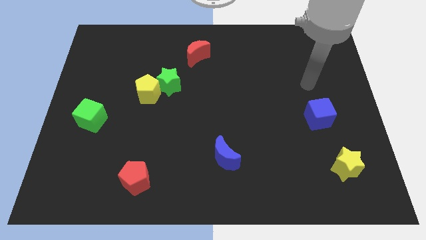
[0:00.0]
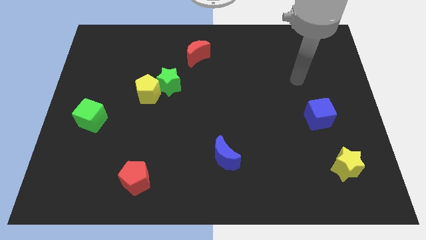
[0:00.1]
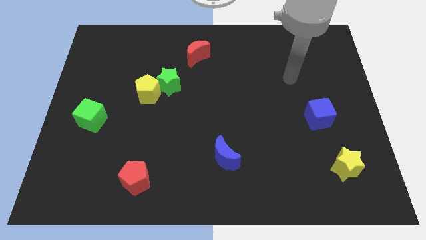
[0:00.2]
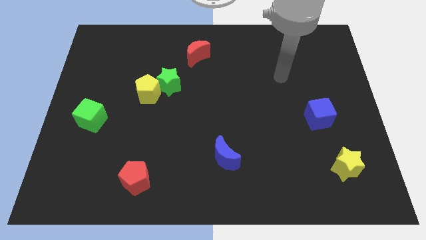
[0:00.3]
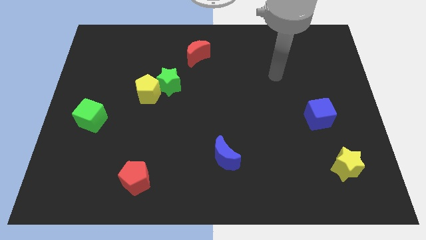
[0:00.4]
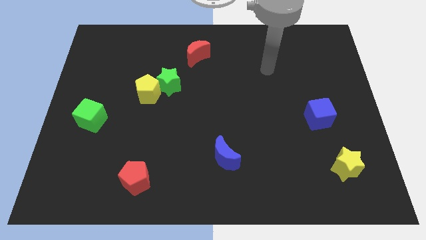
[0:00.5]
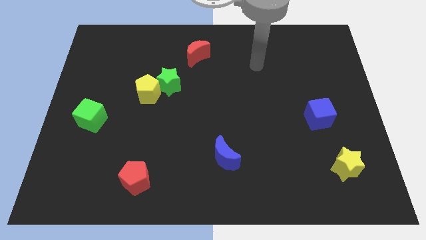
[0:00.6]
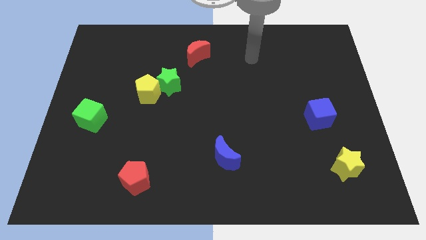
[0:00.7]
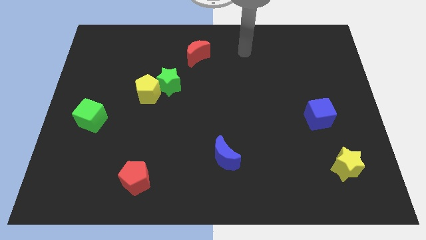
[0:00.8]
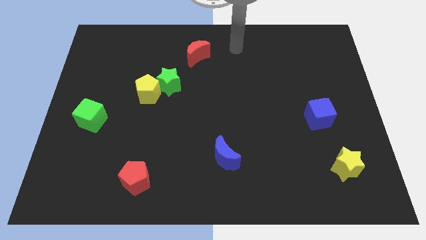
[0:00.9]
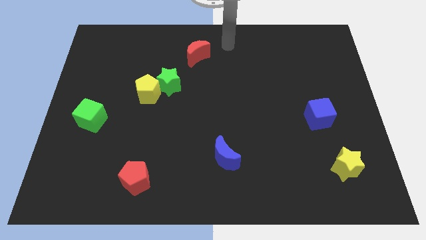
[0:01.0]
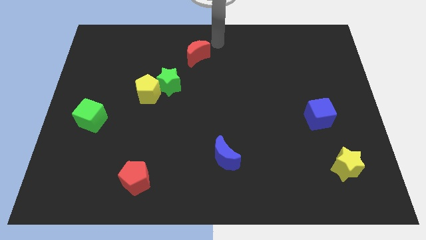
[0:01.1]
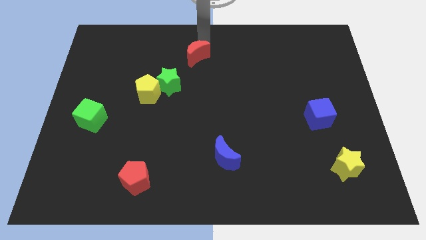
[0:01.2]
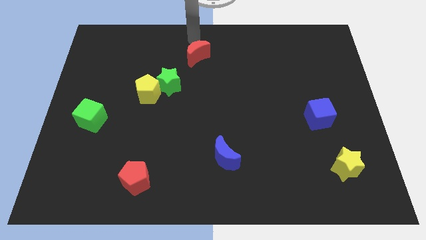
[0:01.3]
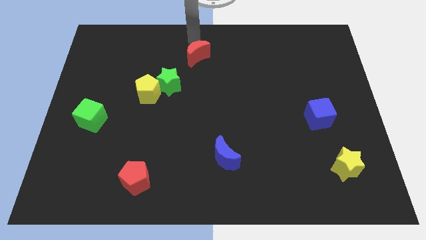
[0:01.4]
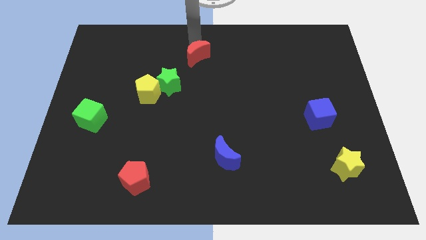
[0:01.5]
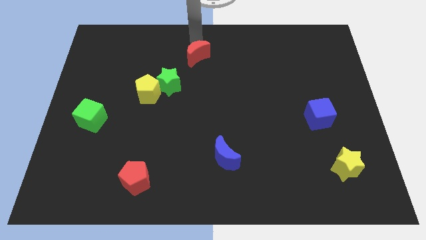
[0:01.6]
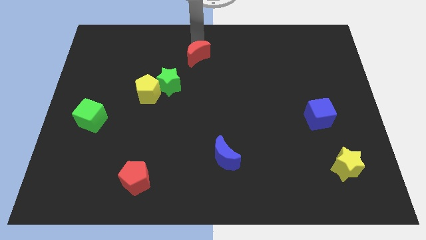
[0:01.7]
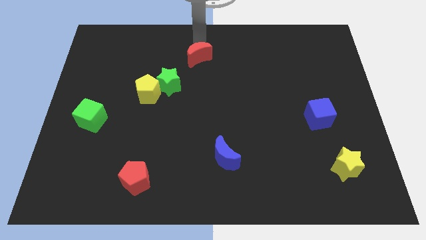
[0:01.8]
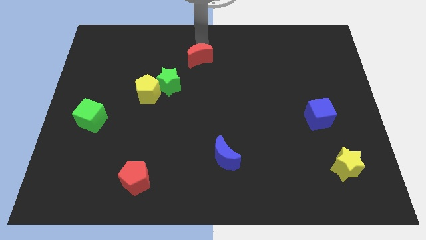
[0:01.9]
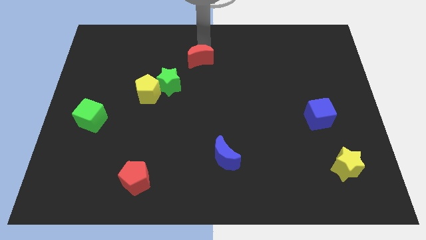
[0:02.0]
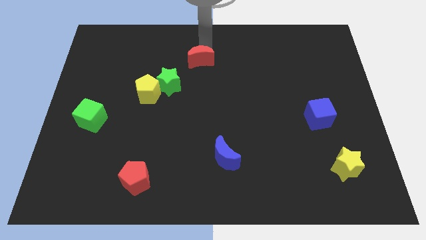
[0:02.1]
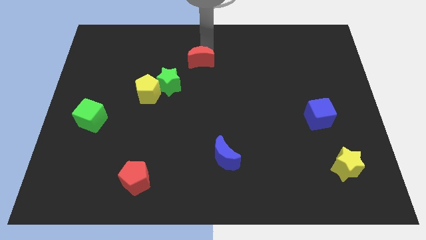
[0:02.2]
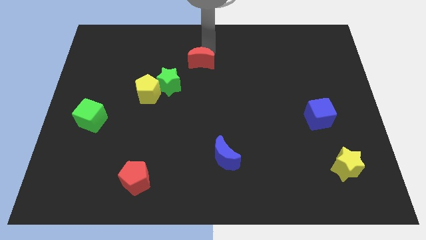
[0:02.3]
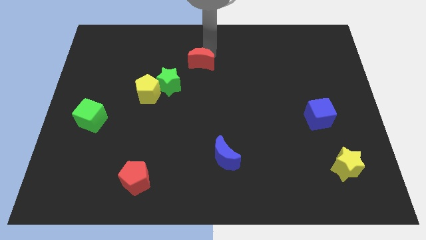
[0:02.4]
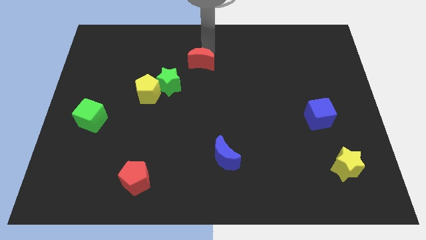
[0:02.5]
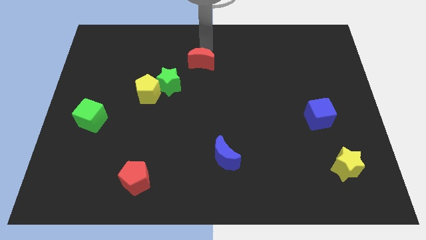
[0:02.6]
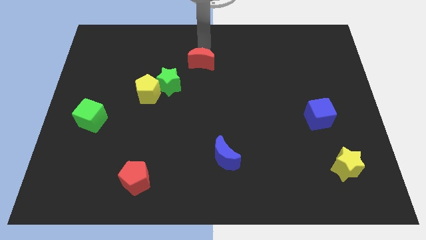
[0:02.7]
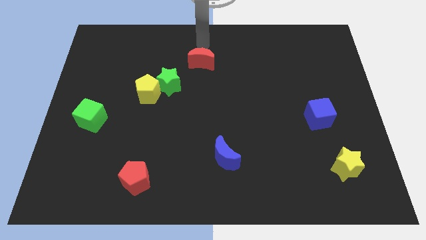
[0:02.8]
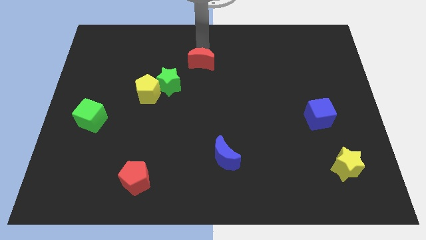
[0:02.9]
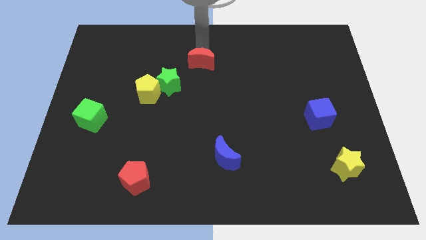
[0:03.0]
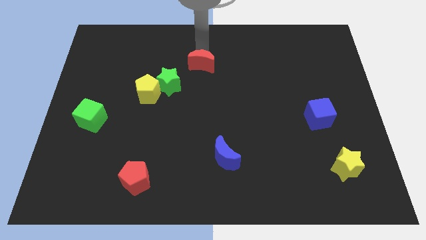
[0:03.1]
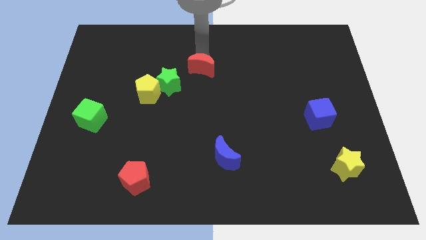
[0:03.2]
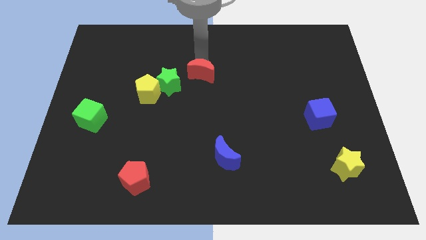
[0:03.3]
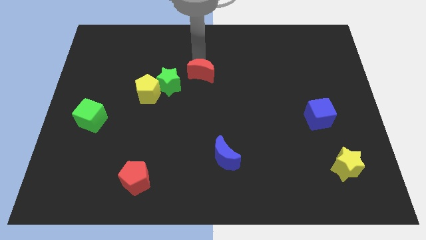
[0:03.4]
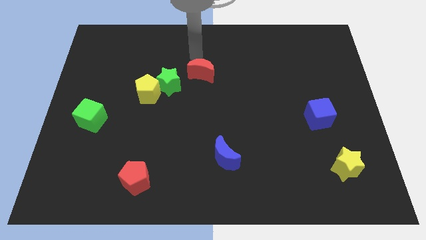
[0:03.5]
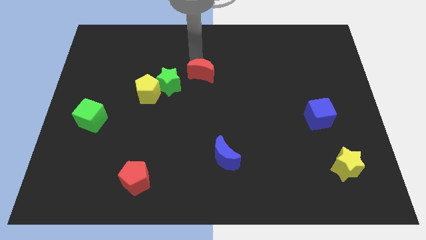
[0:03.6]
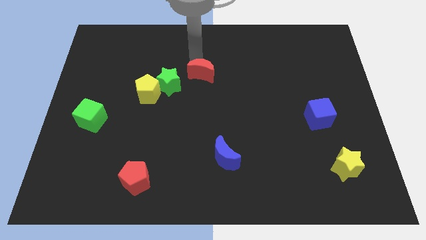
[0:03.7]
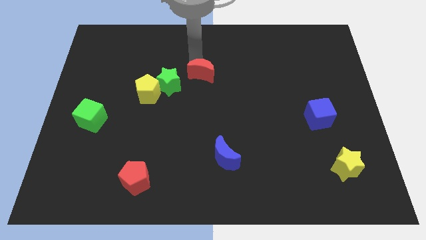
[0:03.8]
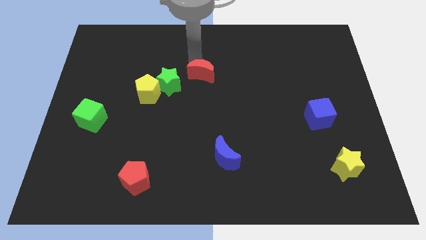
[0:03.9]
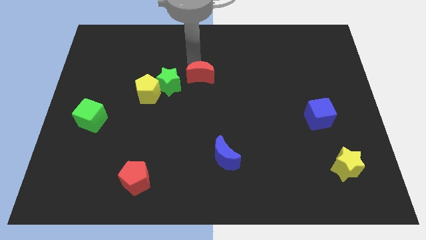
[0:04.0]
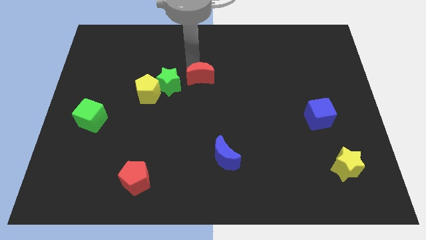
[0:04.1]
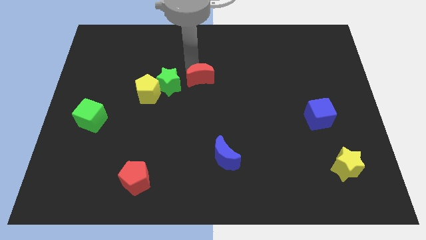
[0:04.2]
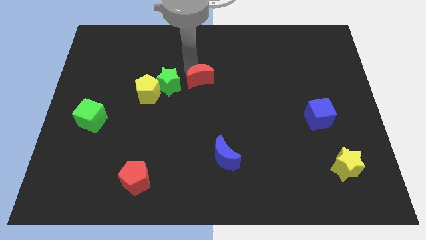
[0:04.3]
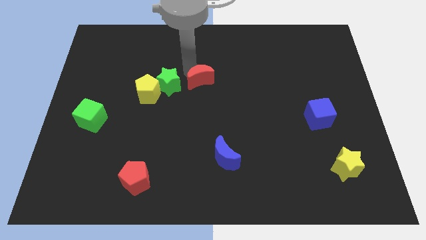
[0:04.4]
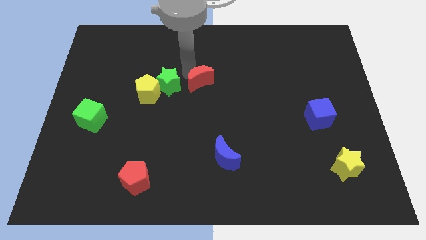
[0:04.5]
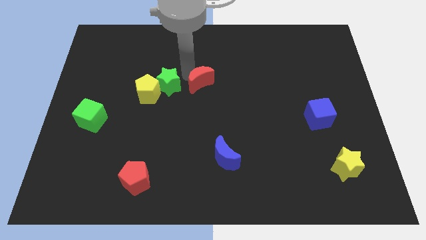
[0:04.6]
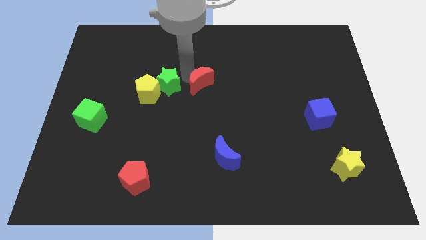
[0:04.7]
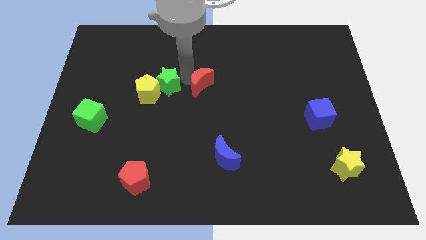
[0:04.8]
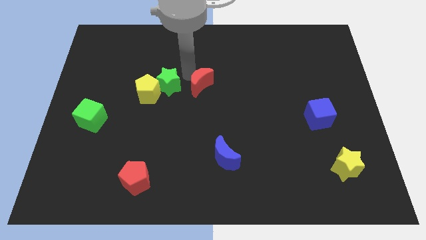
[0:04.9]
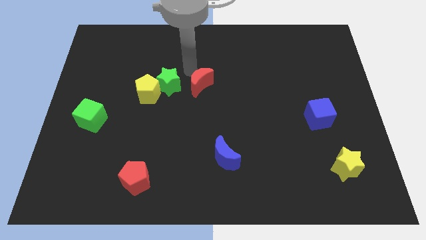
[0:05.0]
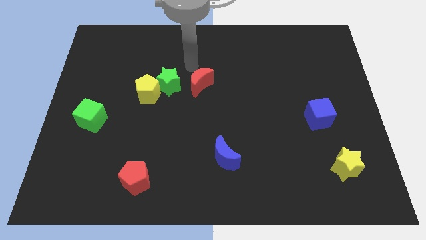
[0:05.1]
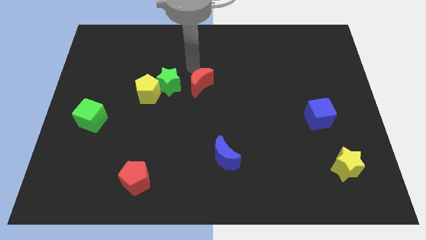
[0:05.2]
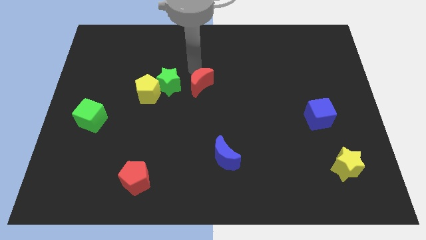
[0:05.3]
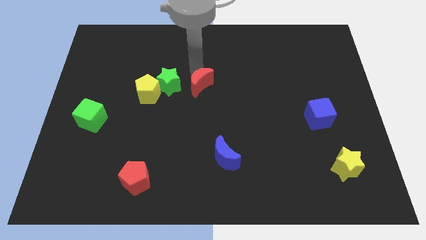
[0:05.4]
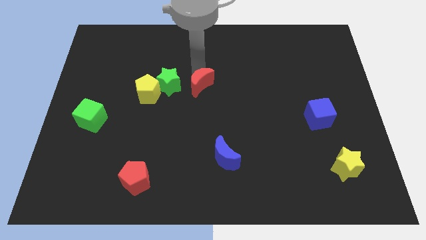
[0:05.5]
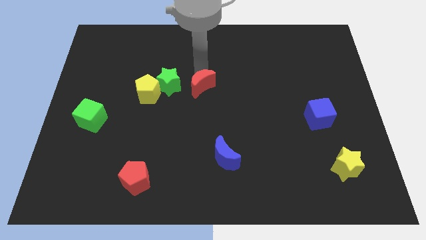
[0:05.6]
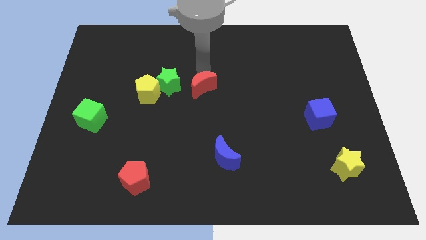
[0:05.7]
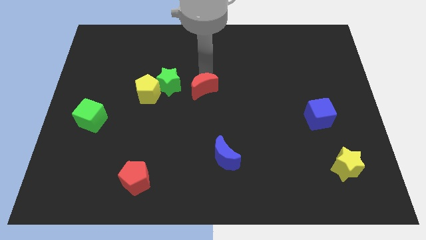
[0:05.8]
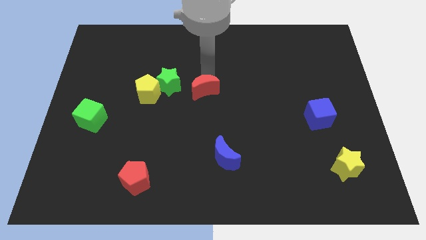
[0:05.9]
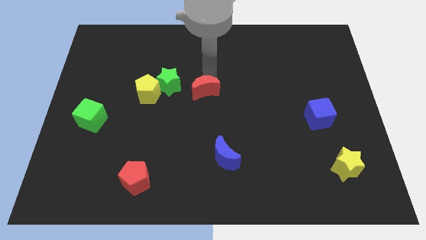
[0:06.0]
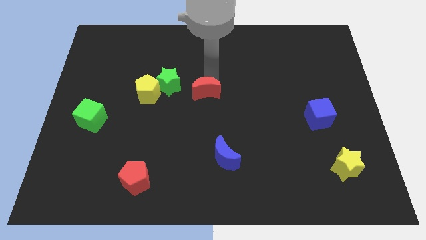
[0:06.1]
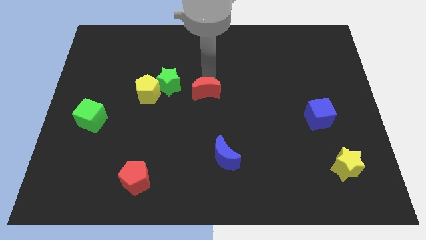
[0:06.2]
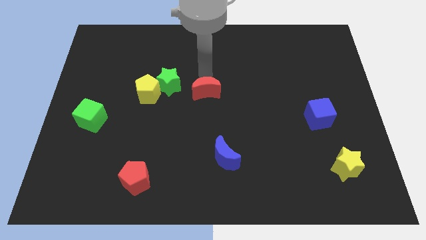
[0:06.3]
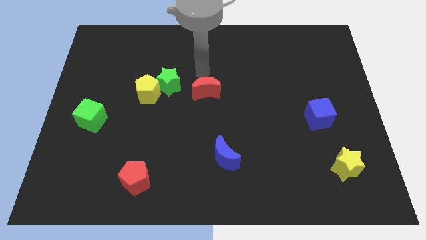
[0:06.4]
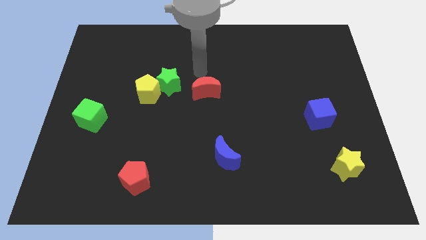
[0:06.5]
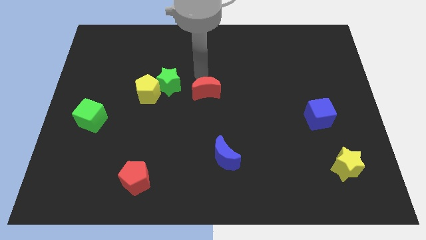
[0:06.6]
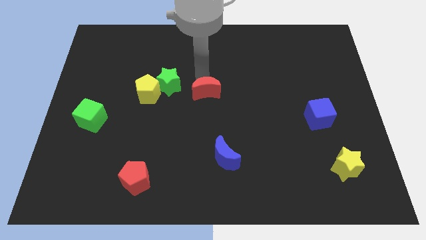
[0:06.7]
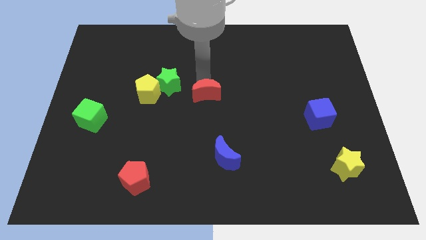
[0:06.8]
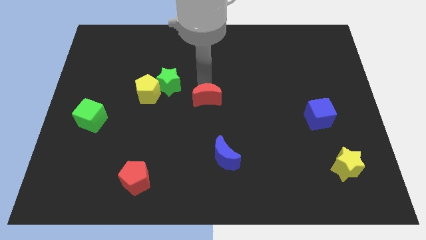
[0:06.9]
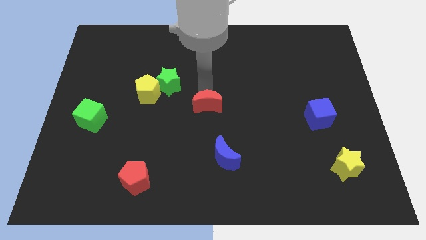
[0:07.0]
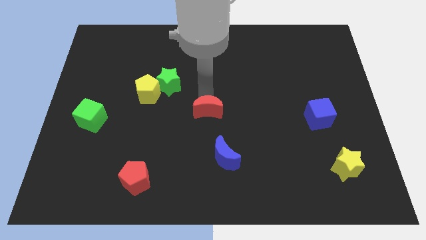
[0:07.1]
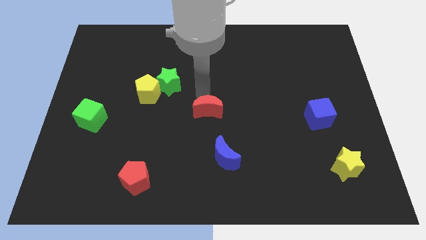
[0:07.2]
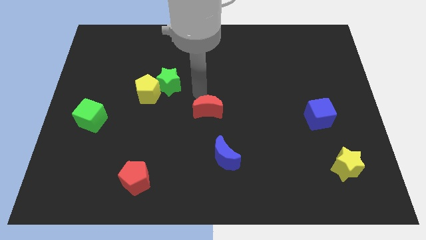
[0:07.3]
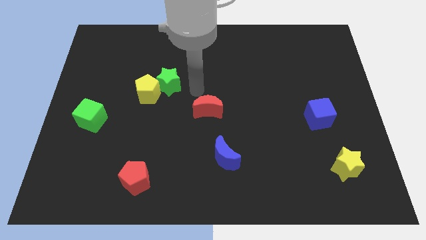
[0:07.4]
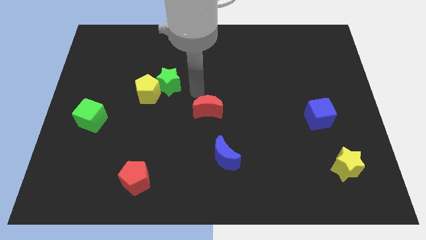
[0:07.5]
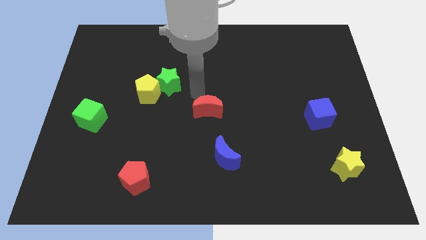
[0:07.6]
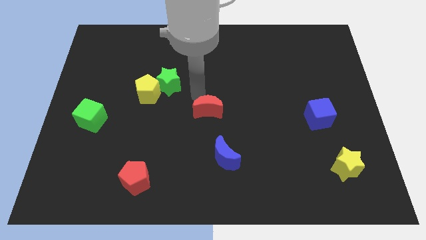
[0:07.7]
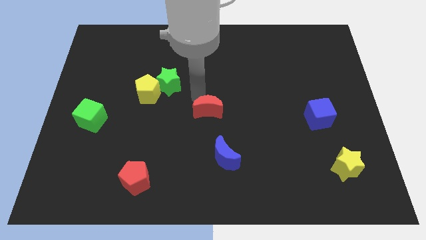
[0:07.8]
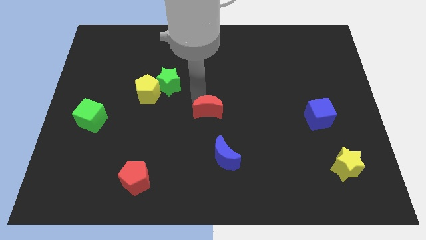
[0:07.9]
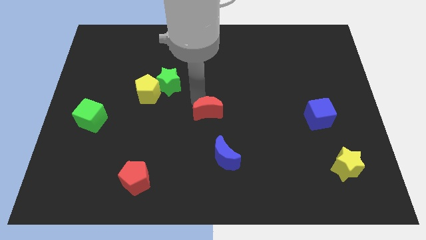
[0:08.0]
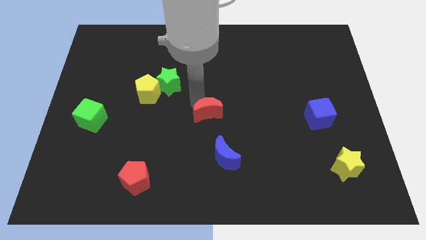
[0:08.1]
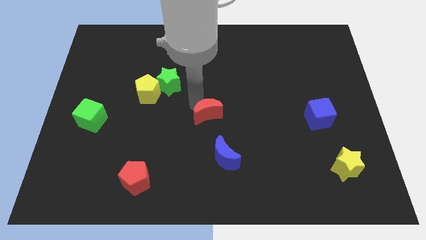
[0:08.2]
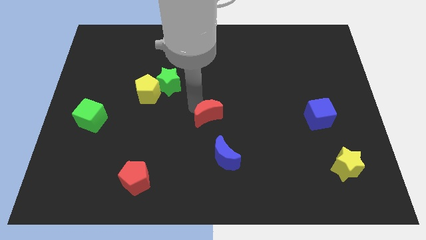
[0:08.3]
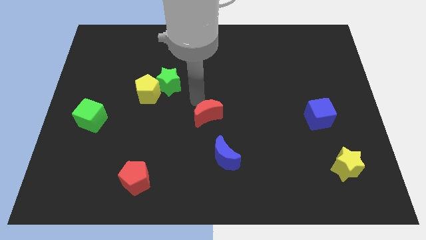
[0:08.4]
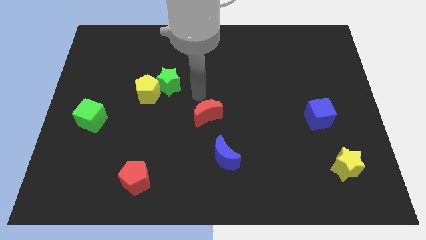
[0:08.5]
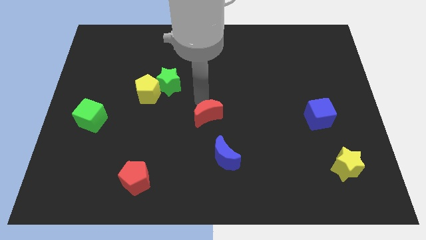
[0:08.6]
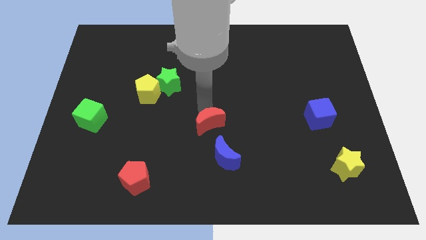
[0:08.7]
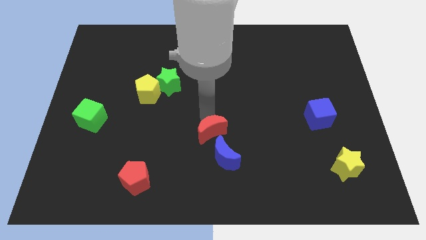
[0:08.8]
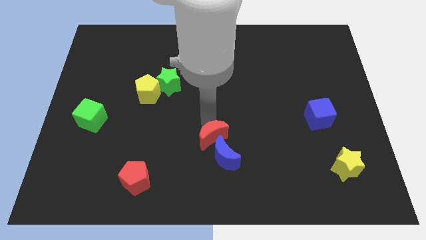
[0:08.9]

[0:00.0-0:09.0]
slide the red moon next to the blue moon
